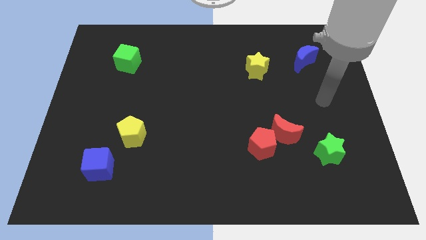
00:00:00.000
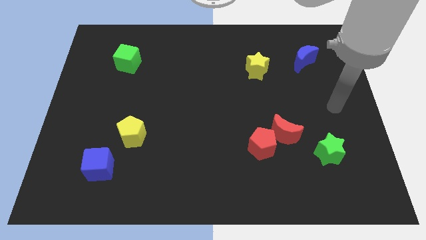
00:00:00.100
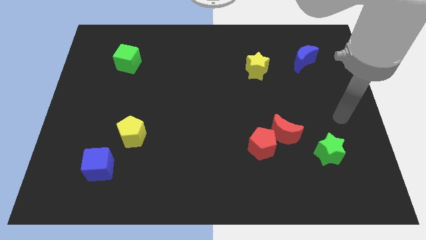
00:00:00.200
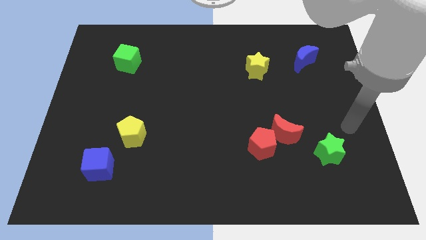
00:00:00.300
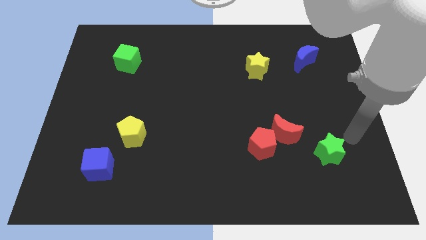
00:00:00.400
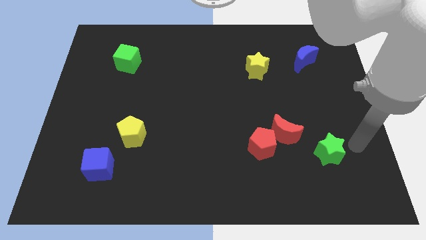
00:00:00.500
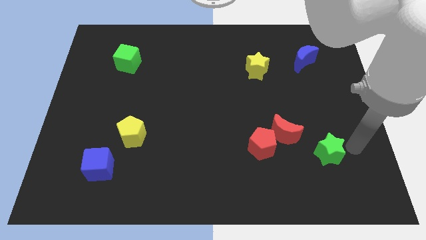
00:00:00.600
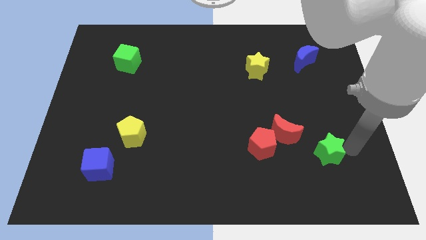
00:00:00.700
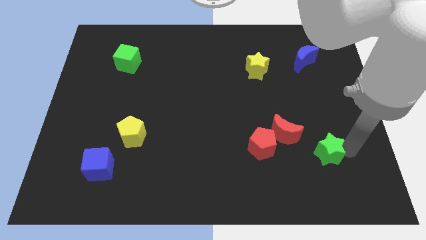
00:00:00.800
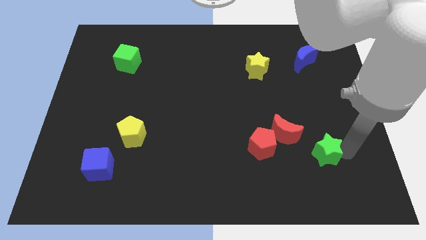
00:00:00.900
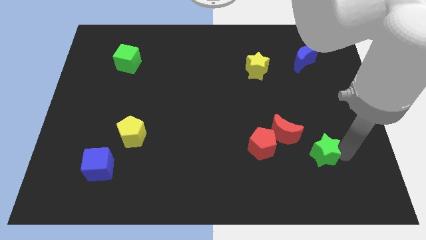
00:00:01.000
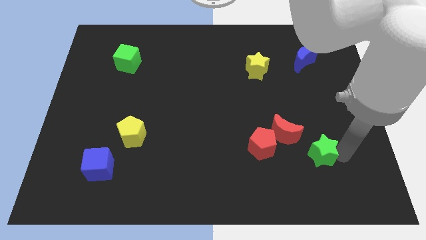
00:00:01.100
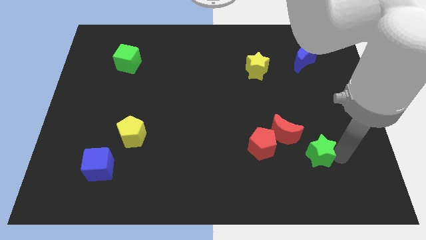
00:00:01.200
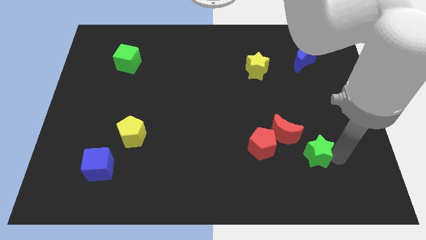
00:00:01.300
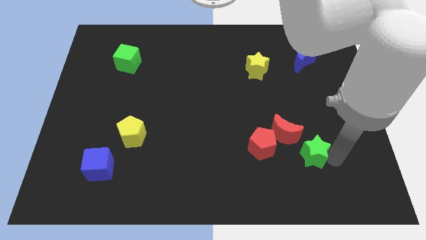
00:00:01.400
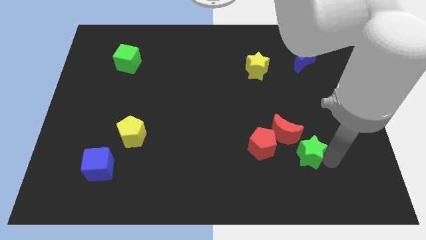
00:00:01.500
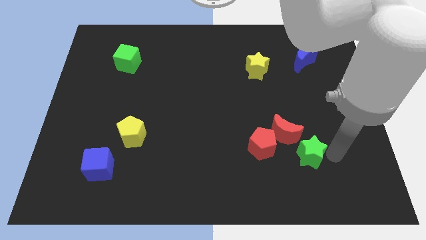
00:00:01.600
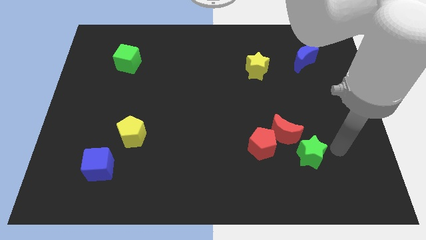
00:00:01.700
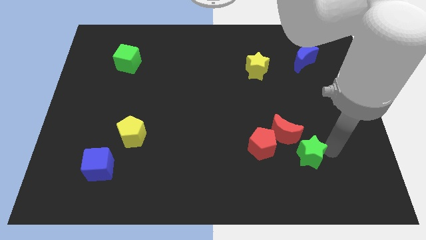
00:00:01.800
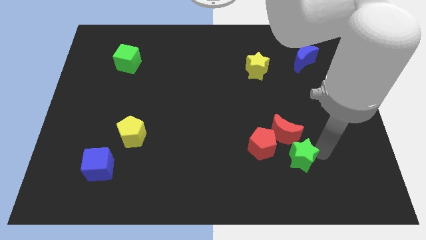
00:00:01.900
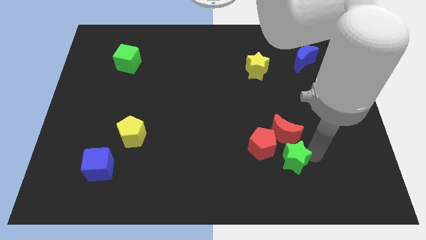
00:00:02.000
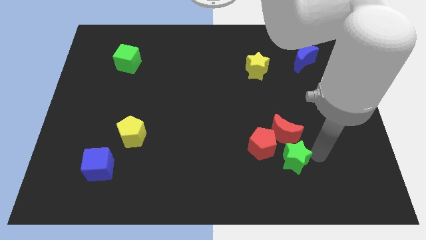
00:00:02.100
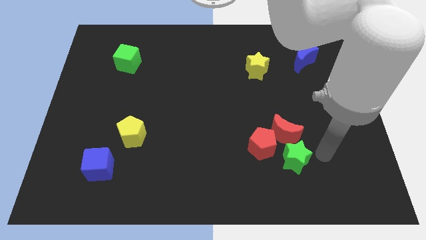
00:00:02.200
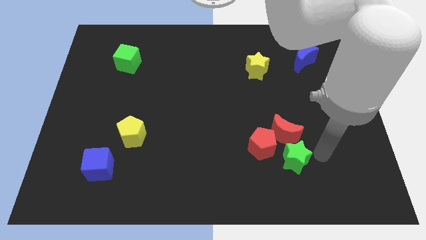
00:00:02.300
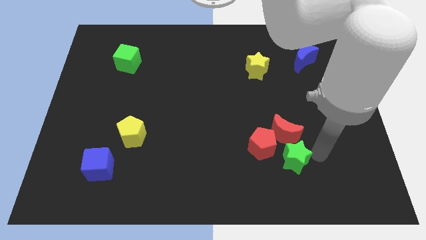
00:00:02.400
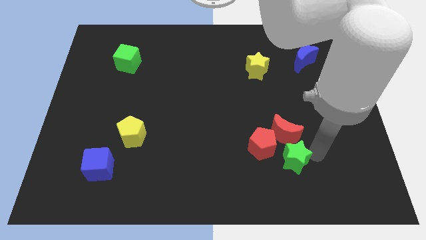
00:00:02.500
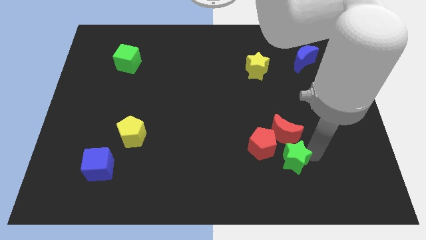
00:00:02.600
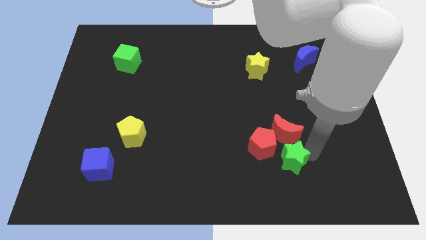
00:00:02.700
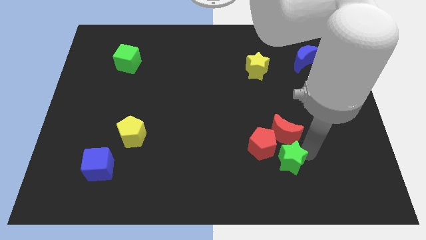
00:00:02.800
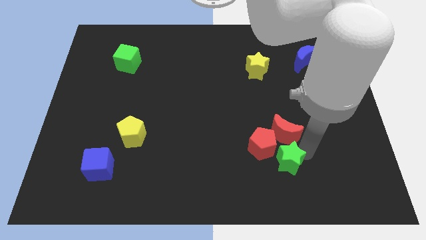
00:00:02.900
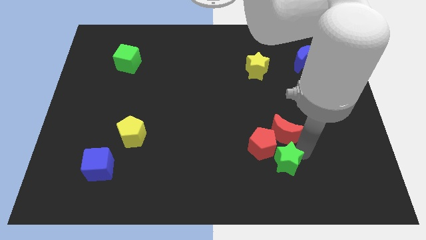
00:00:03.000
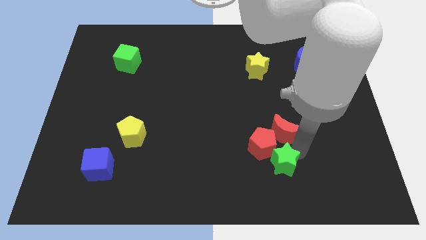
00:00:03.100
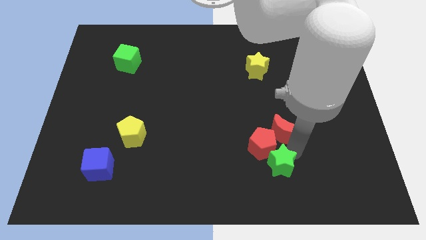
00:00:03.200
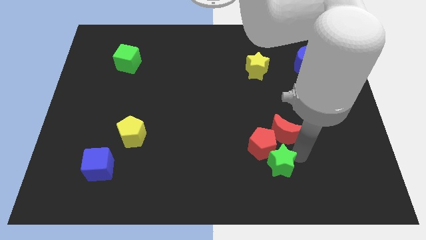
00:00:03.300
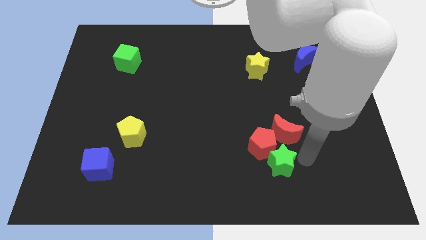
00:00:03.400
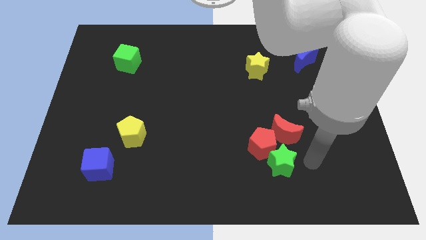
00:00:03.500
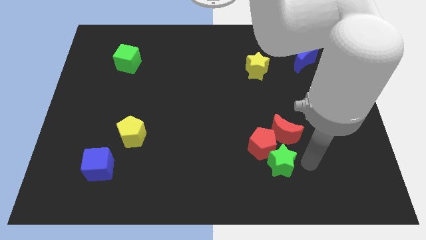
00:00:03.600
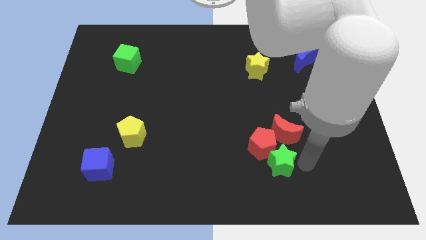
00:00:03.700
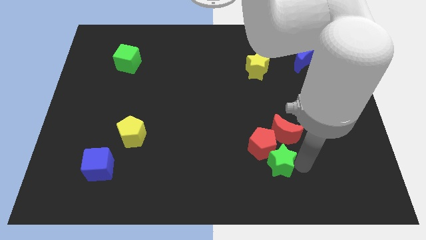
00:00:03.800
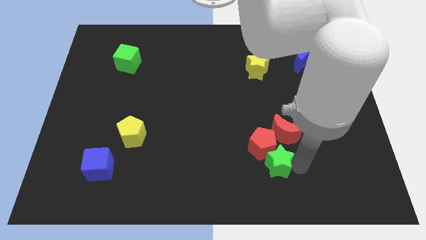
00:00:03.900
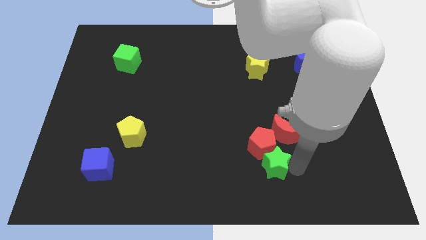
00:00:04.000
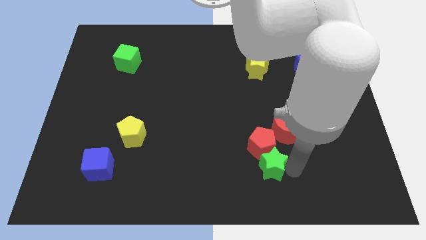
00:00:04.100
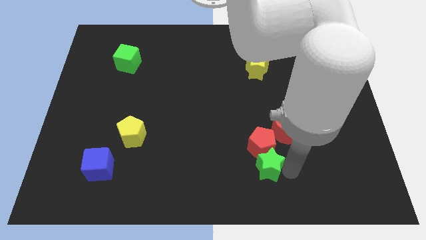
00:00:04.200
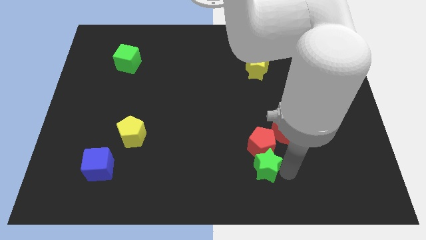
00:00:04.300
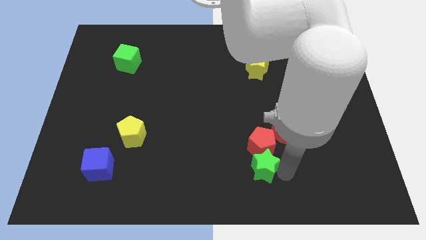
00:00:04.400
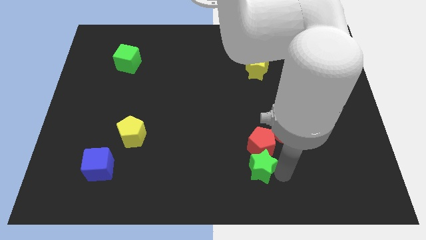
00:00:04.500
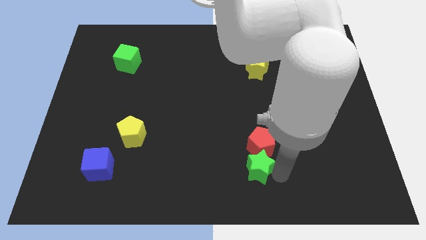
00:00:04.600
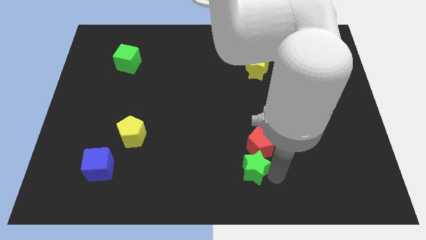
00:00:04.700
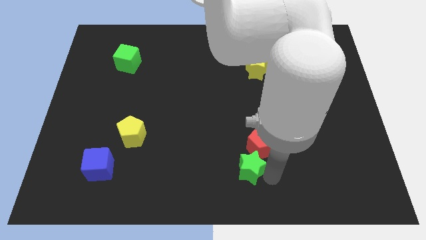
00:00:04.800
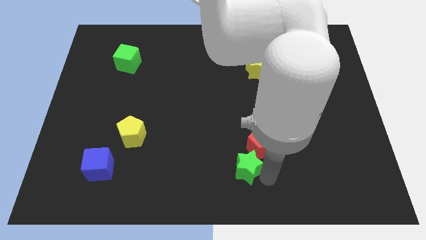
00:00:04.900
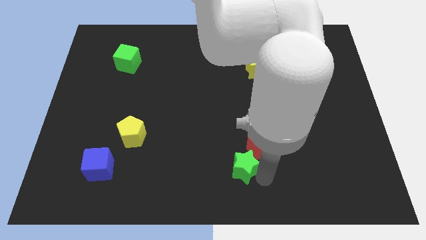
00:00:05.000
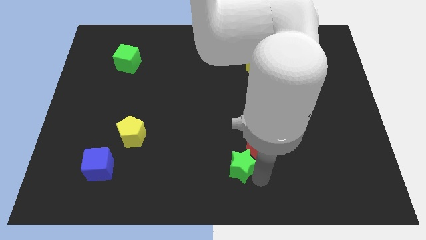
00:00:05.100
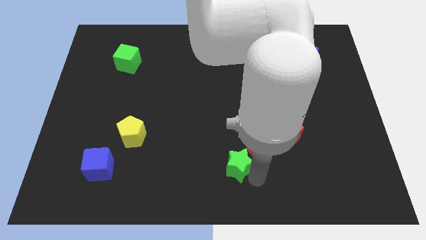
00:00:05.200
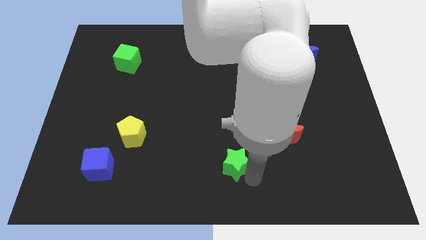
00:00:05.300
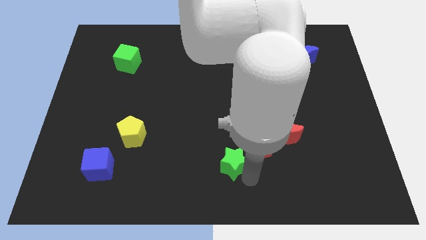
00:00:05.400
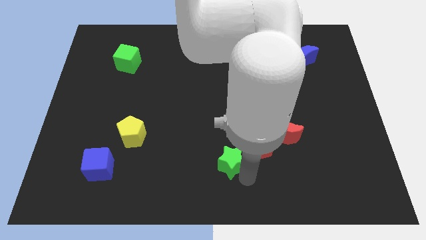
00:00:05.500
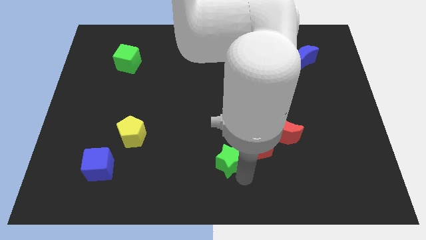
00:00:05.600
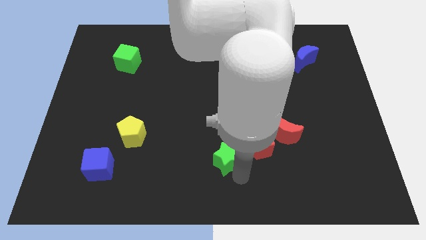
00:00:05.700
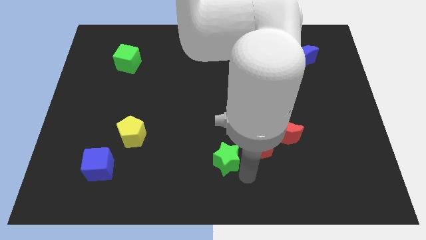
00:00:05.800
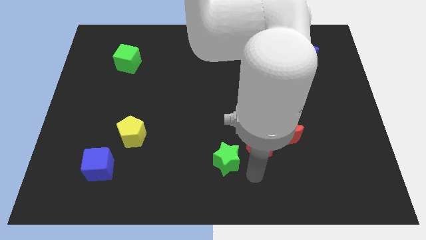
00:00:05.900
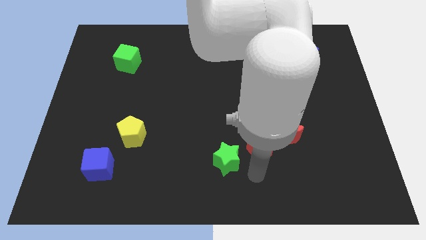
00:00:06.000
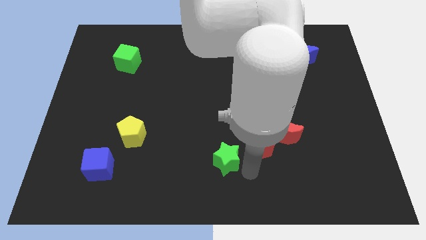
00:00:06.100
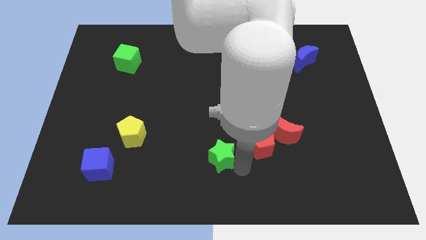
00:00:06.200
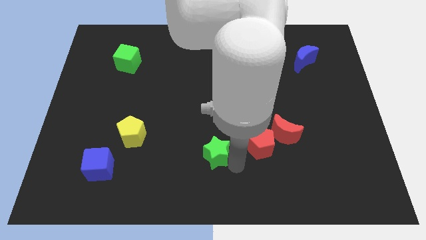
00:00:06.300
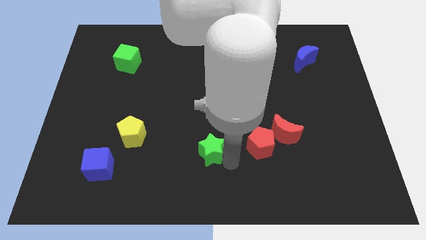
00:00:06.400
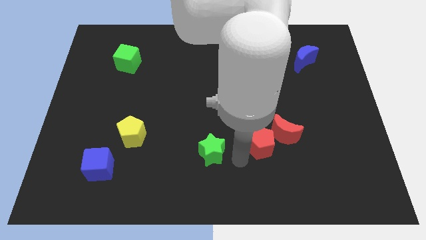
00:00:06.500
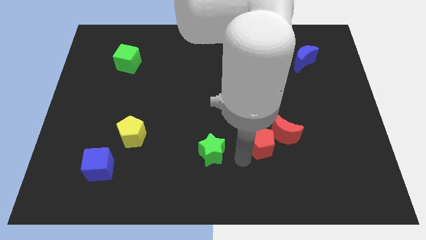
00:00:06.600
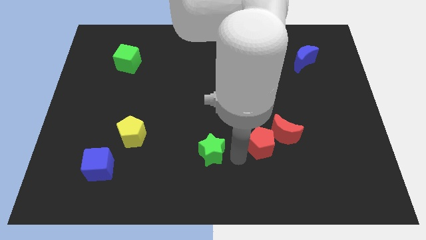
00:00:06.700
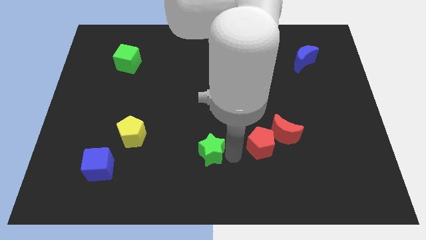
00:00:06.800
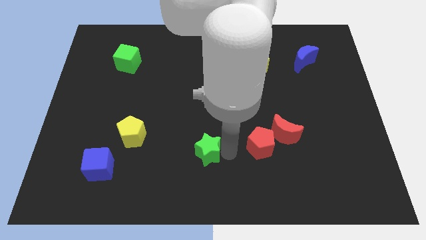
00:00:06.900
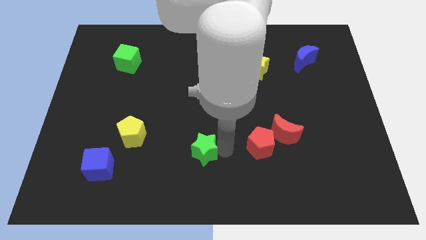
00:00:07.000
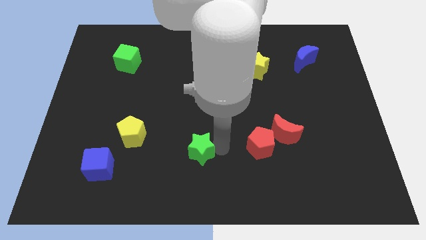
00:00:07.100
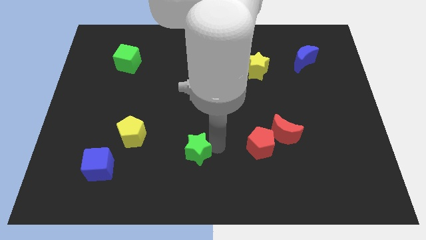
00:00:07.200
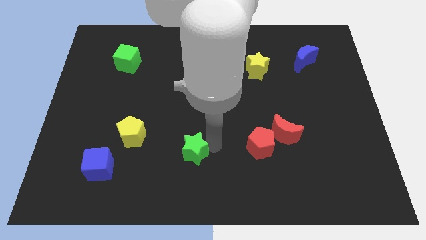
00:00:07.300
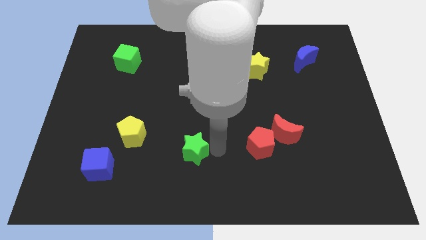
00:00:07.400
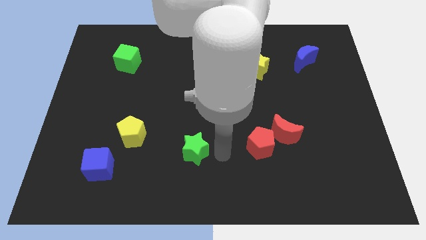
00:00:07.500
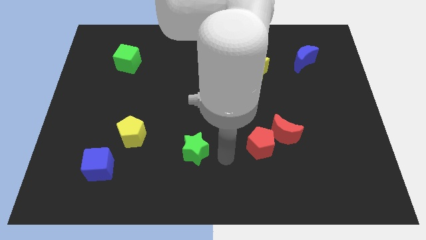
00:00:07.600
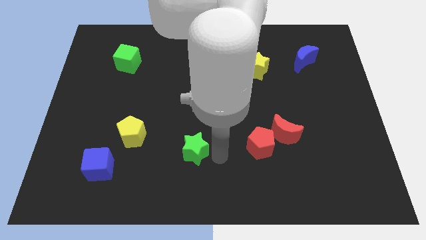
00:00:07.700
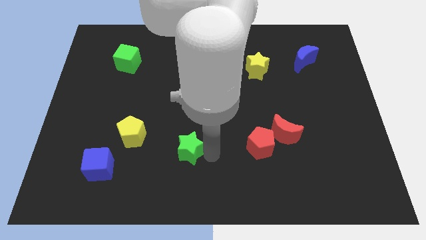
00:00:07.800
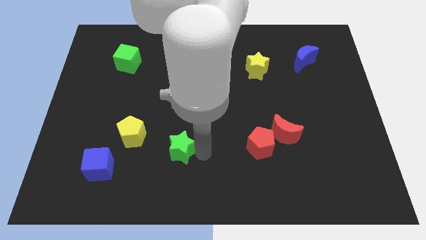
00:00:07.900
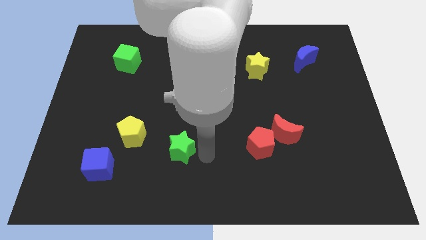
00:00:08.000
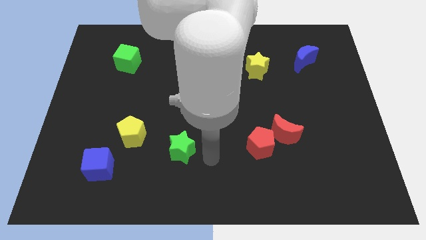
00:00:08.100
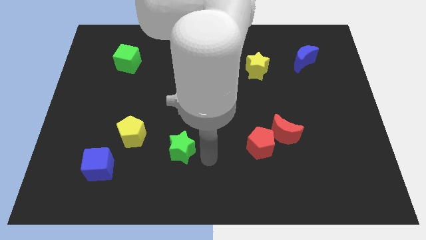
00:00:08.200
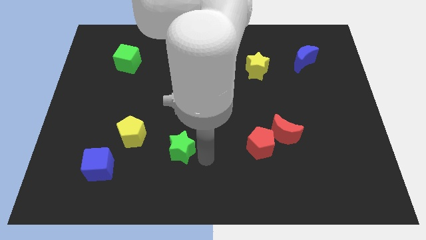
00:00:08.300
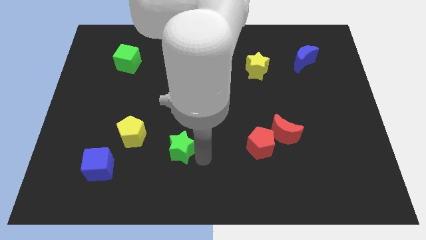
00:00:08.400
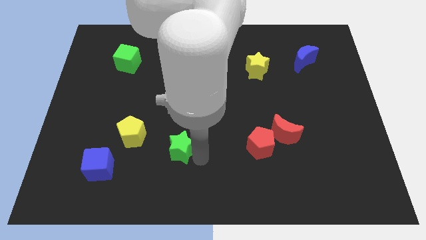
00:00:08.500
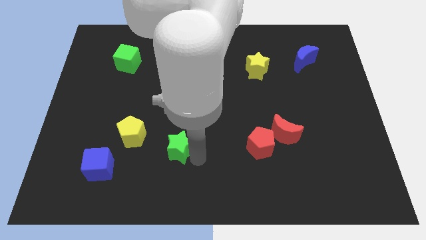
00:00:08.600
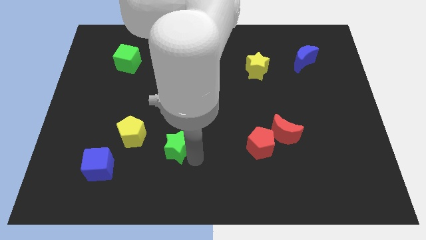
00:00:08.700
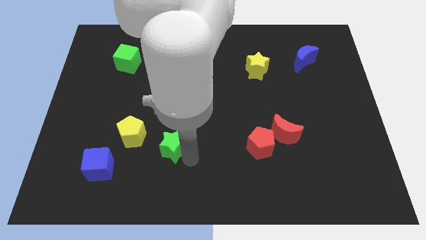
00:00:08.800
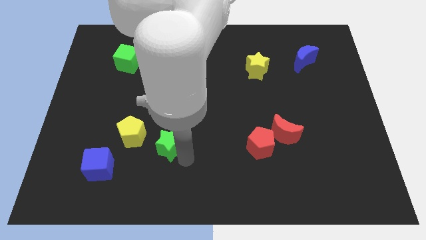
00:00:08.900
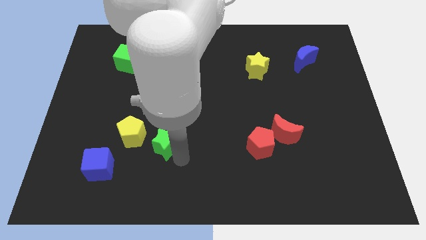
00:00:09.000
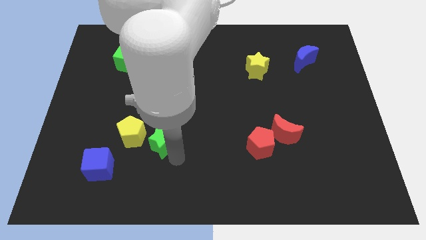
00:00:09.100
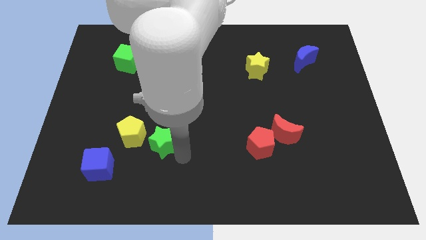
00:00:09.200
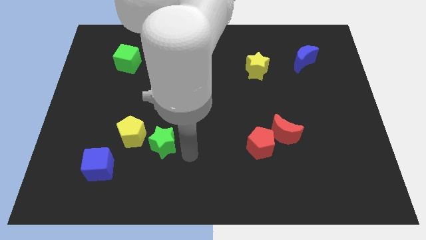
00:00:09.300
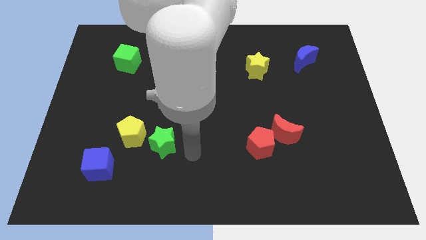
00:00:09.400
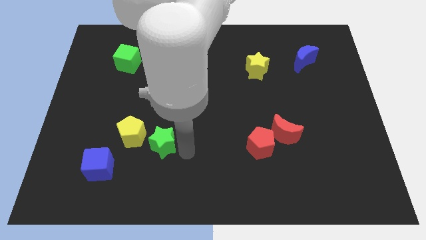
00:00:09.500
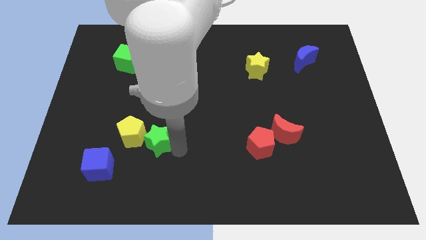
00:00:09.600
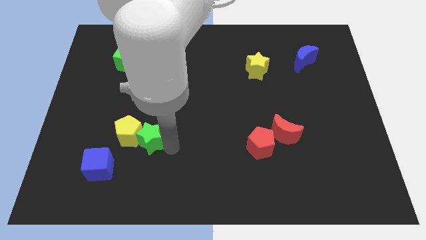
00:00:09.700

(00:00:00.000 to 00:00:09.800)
put the green star next to the yellow pentagon
